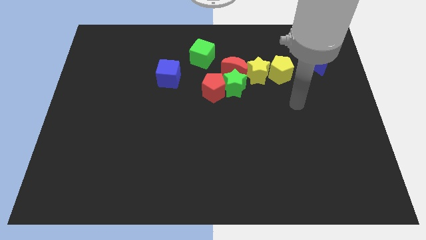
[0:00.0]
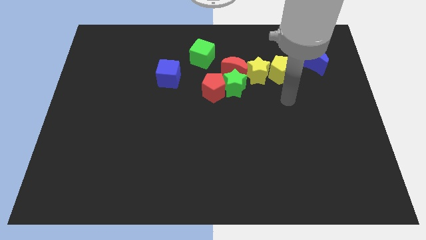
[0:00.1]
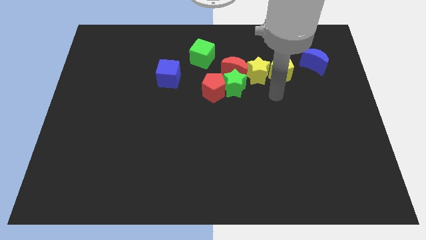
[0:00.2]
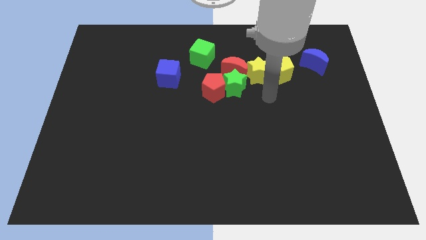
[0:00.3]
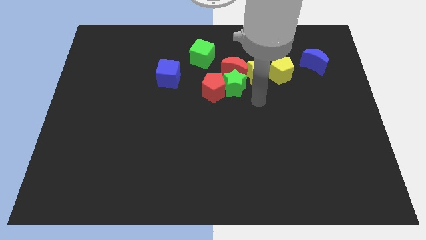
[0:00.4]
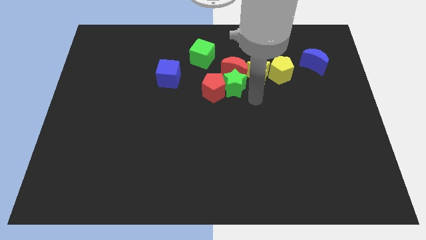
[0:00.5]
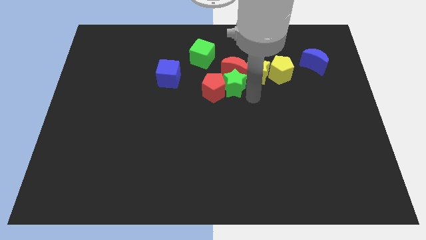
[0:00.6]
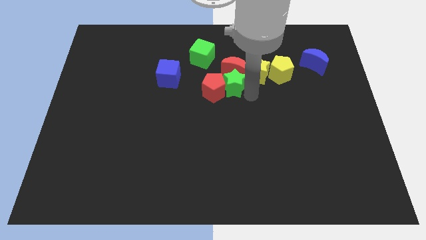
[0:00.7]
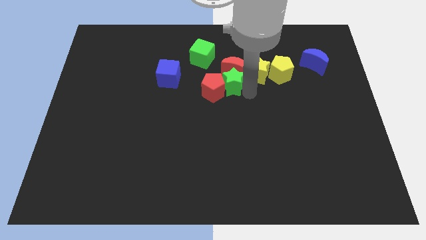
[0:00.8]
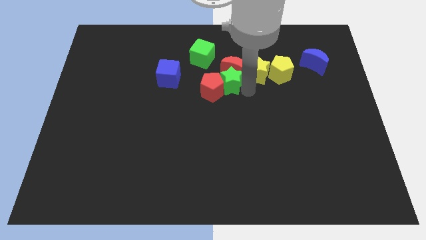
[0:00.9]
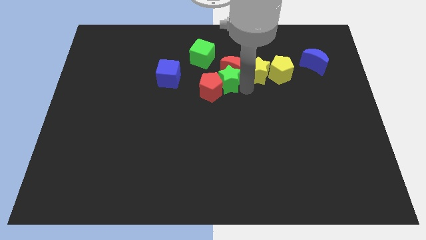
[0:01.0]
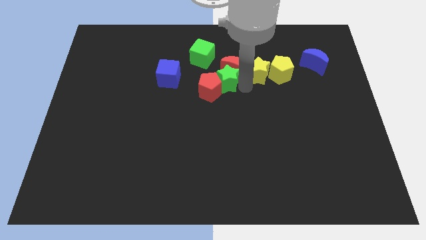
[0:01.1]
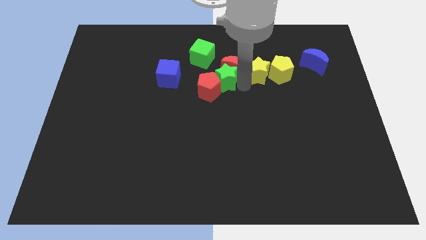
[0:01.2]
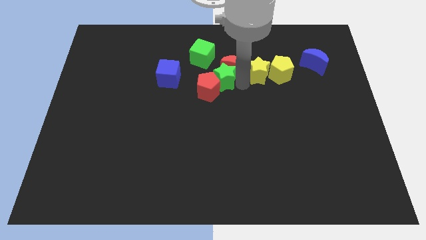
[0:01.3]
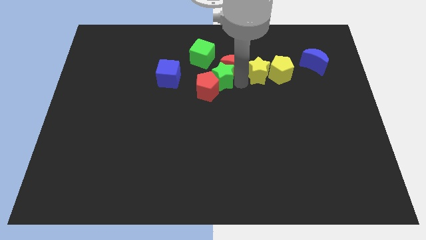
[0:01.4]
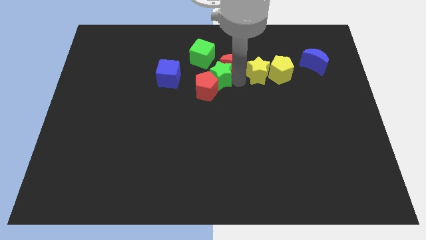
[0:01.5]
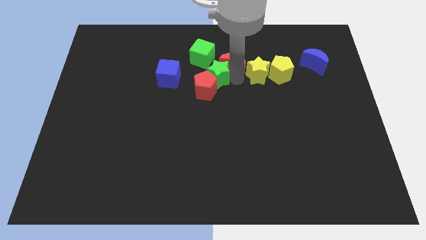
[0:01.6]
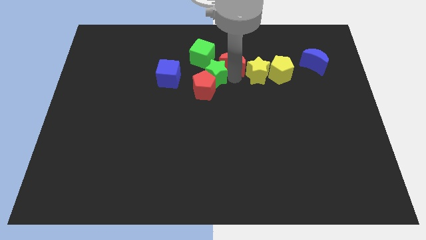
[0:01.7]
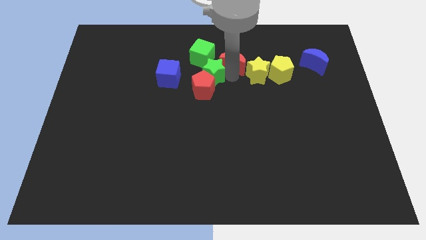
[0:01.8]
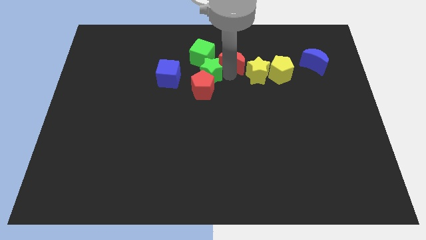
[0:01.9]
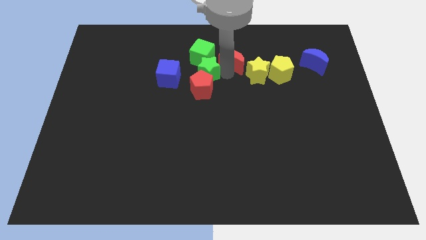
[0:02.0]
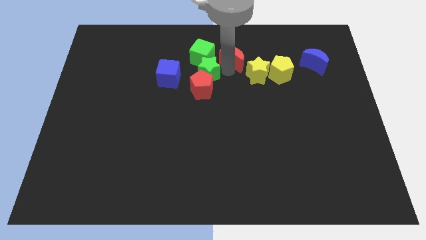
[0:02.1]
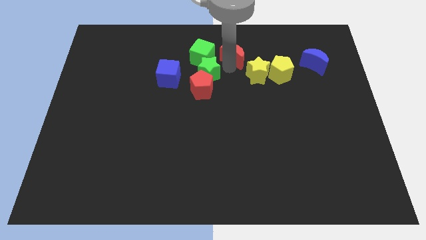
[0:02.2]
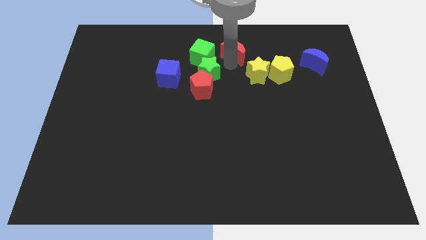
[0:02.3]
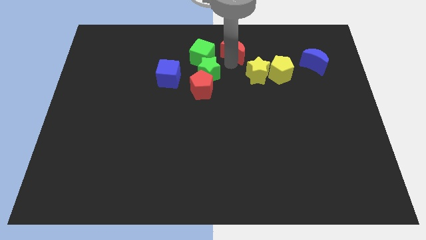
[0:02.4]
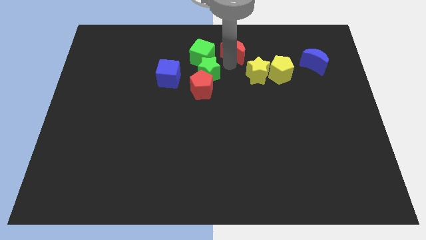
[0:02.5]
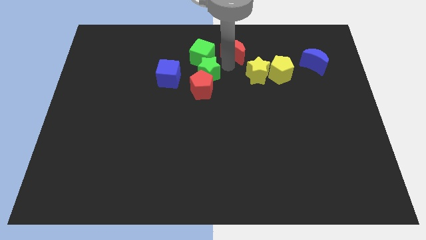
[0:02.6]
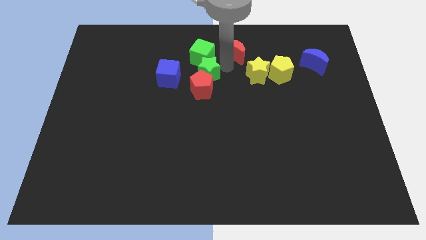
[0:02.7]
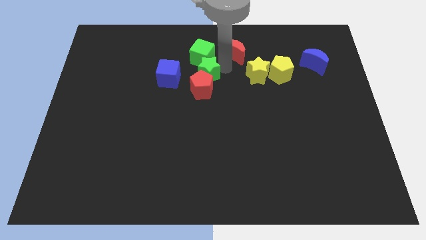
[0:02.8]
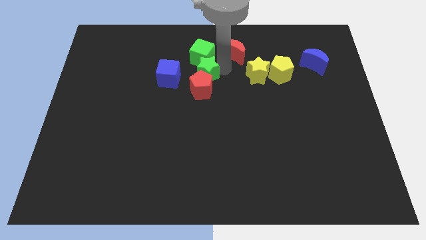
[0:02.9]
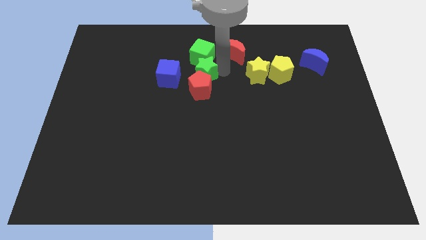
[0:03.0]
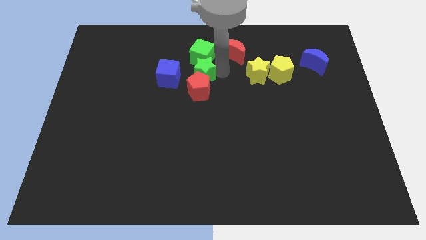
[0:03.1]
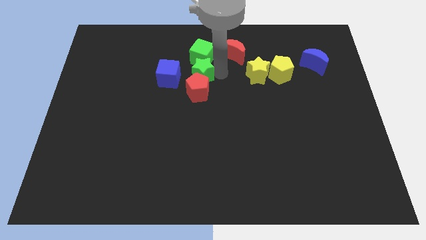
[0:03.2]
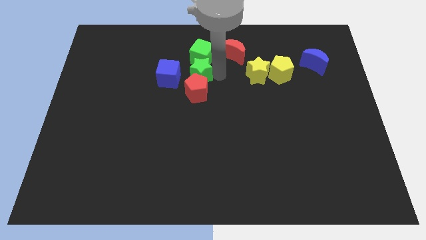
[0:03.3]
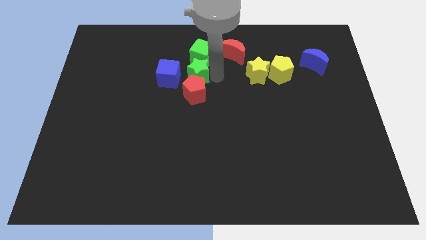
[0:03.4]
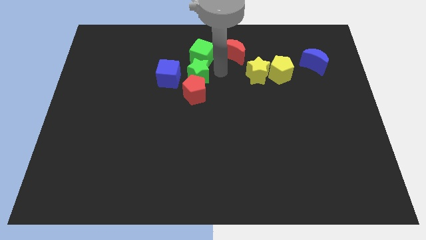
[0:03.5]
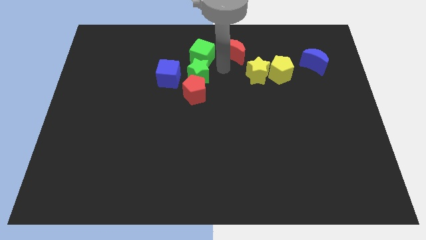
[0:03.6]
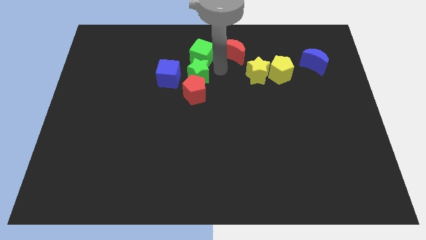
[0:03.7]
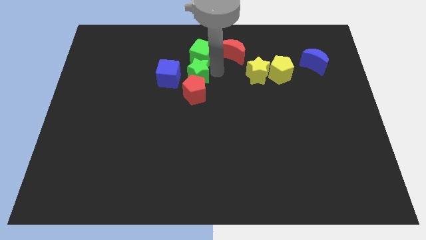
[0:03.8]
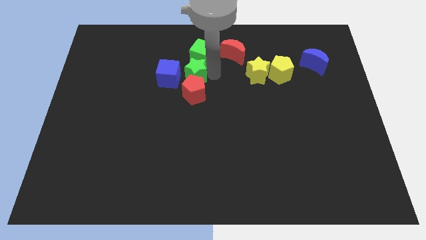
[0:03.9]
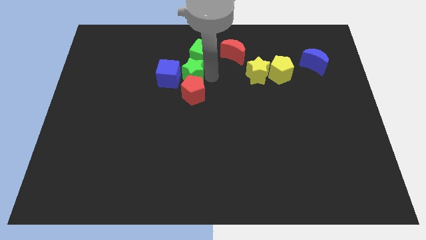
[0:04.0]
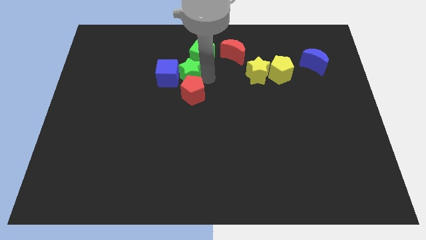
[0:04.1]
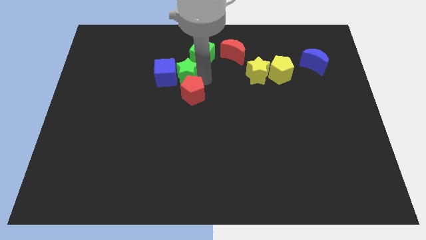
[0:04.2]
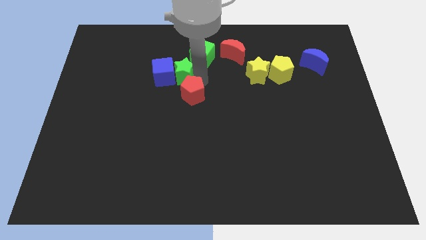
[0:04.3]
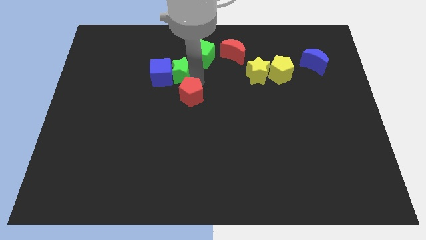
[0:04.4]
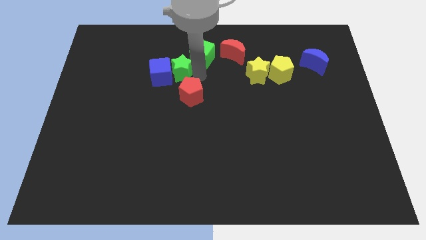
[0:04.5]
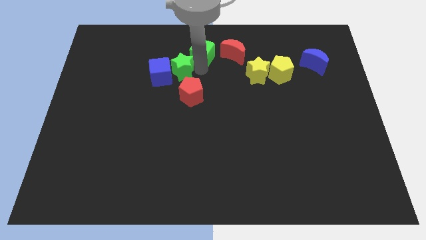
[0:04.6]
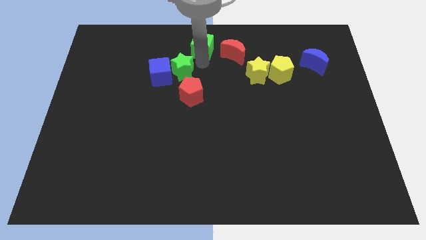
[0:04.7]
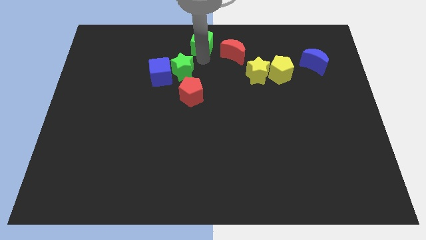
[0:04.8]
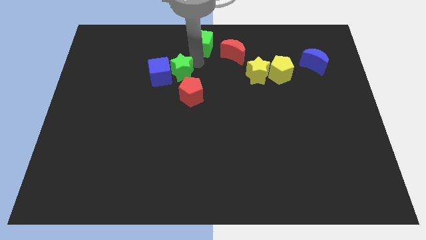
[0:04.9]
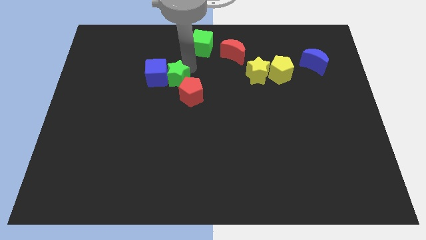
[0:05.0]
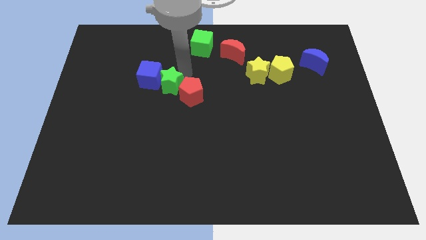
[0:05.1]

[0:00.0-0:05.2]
slide the green star to the left of the red pentagon

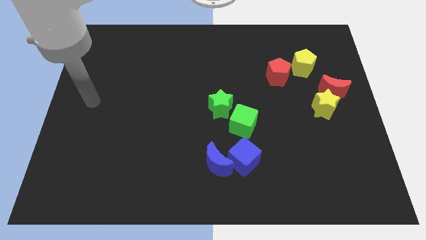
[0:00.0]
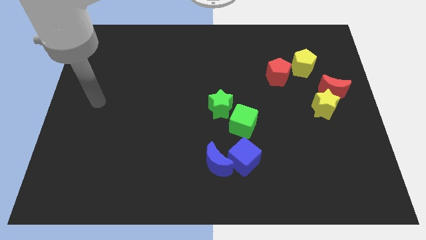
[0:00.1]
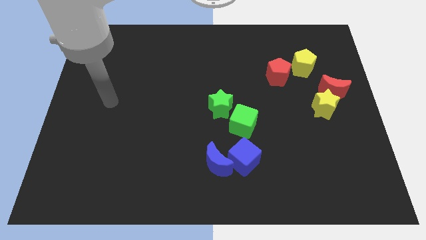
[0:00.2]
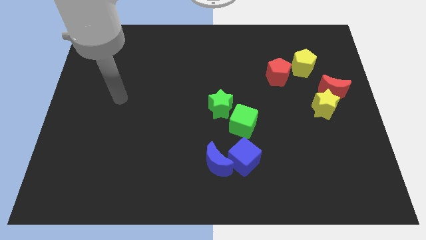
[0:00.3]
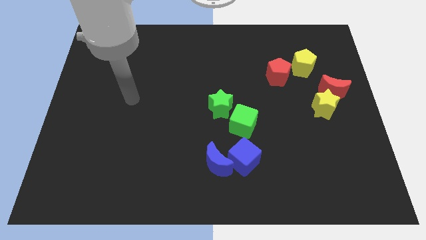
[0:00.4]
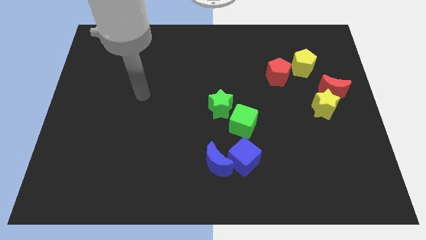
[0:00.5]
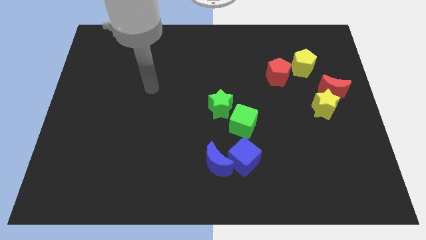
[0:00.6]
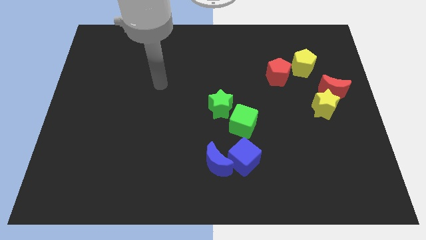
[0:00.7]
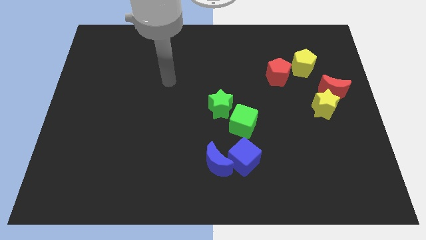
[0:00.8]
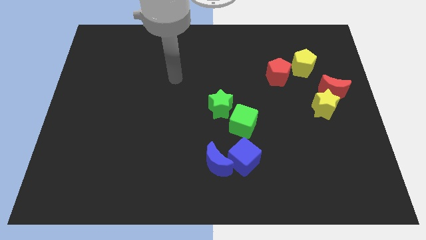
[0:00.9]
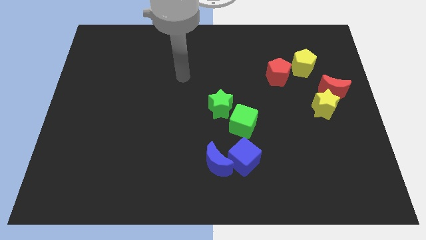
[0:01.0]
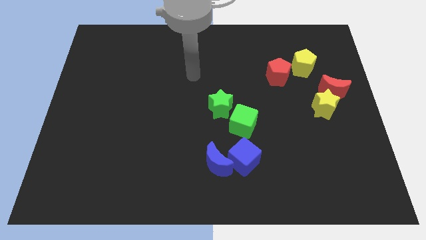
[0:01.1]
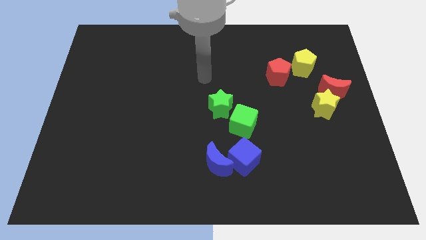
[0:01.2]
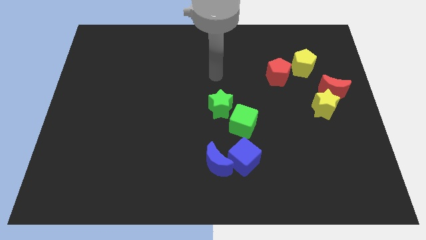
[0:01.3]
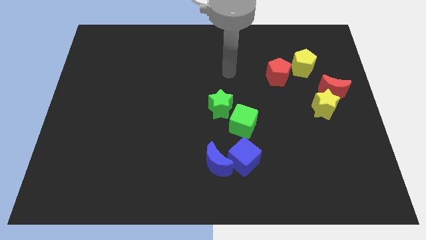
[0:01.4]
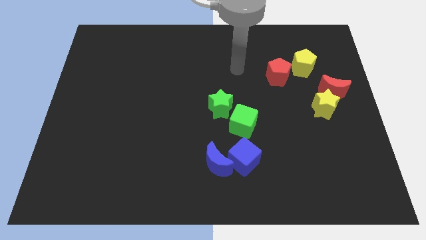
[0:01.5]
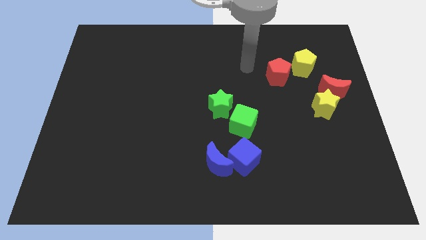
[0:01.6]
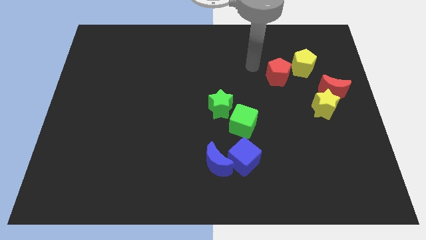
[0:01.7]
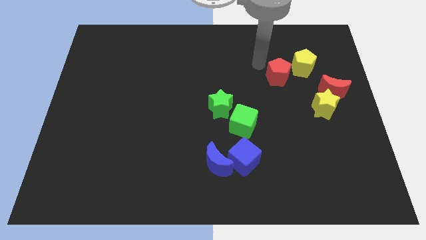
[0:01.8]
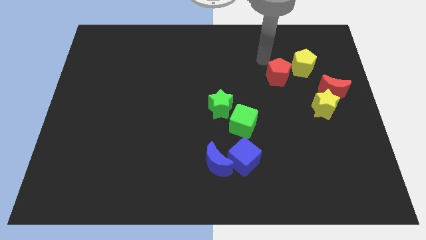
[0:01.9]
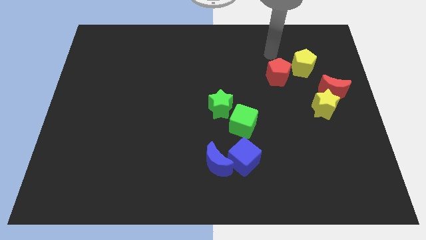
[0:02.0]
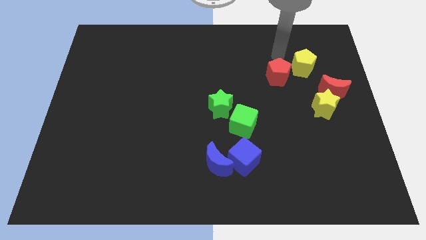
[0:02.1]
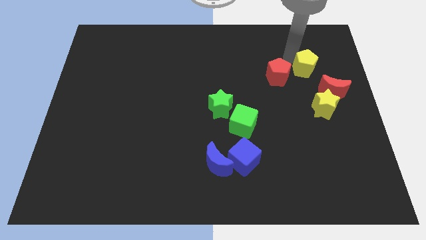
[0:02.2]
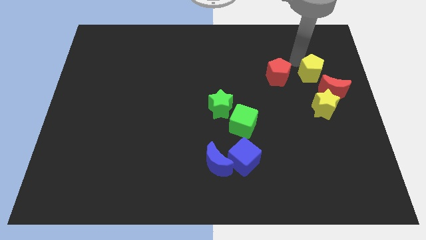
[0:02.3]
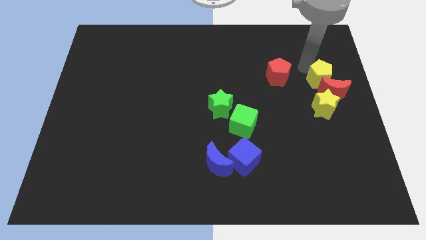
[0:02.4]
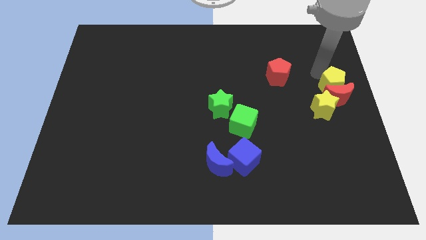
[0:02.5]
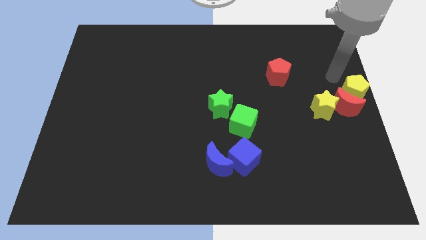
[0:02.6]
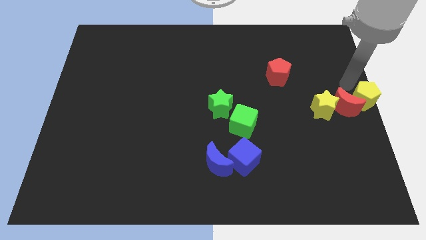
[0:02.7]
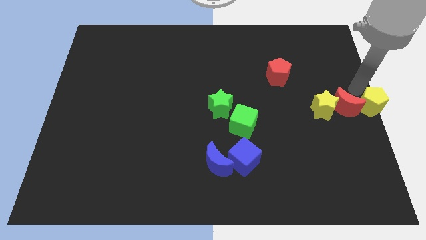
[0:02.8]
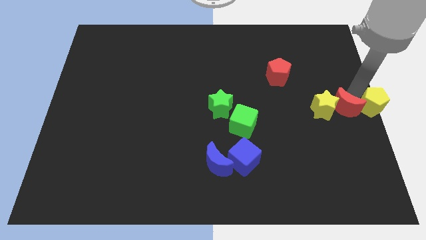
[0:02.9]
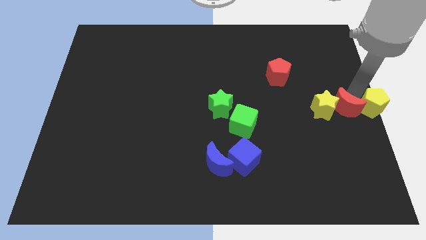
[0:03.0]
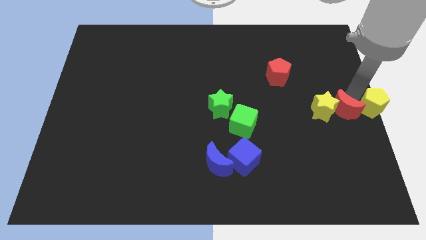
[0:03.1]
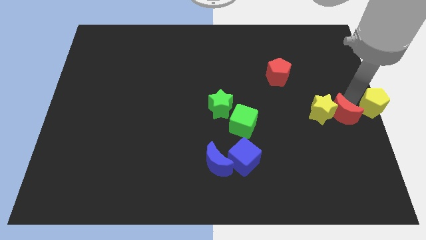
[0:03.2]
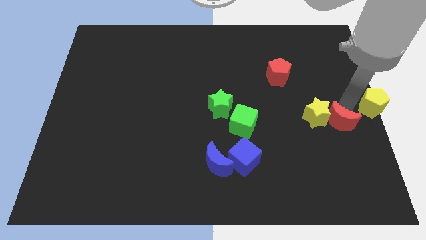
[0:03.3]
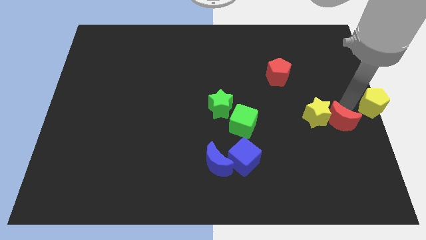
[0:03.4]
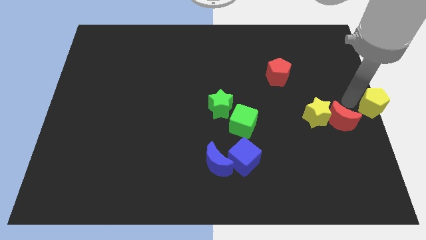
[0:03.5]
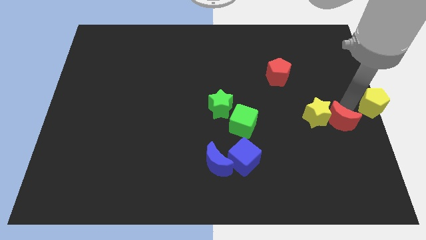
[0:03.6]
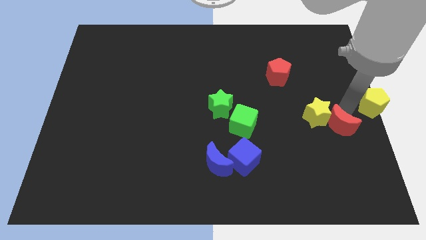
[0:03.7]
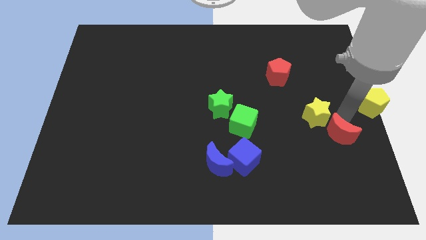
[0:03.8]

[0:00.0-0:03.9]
put the red moon to the bottom side of the yellow star
